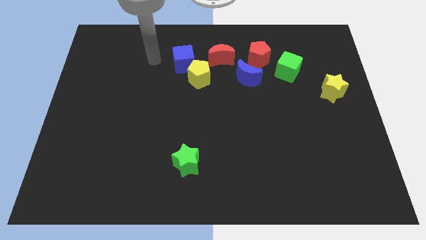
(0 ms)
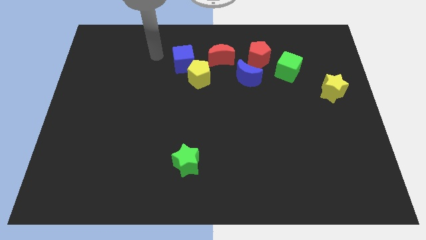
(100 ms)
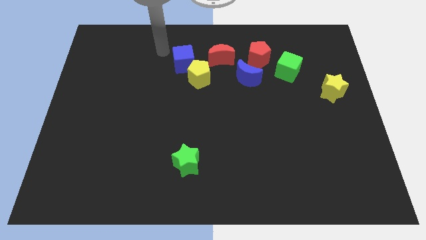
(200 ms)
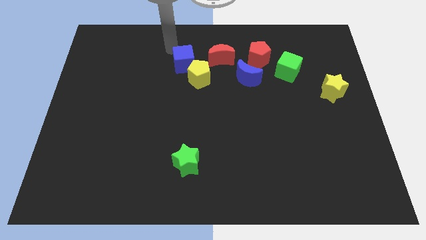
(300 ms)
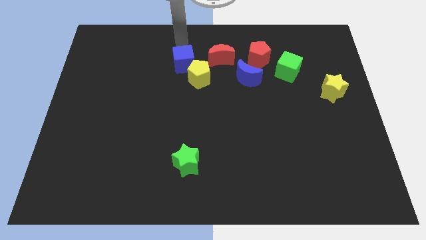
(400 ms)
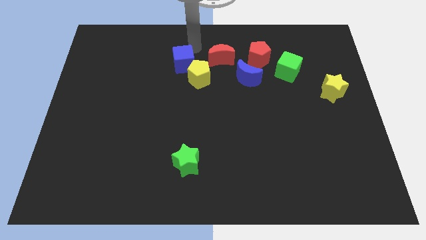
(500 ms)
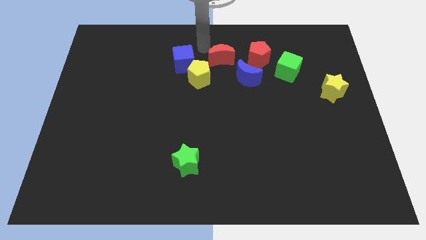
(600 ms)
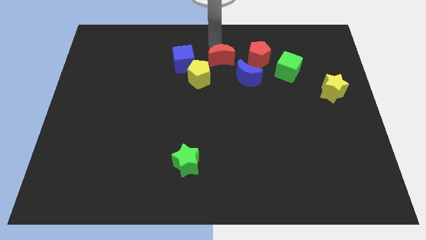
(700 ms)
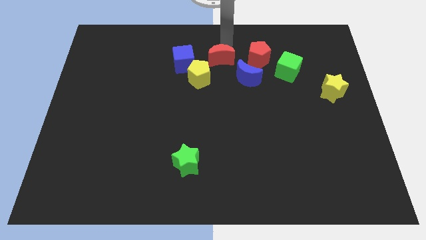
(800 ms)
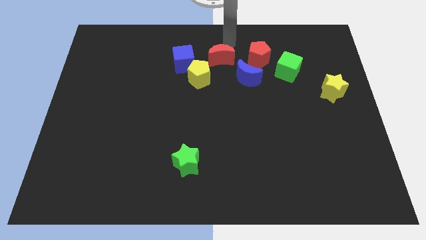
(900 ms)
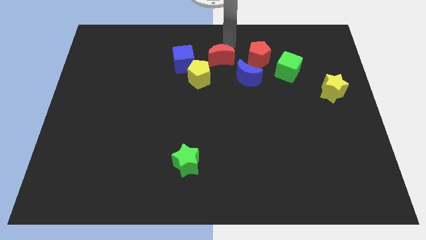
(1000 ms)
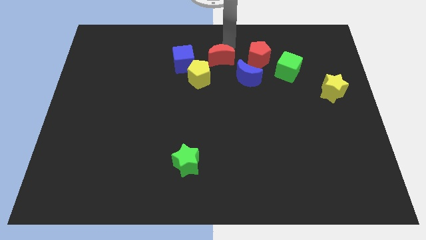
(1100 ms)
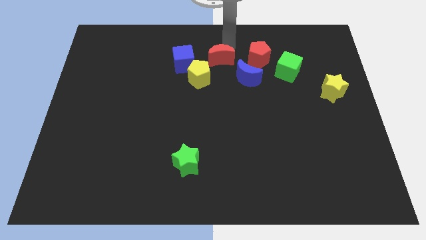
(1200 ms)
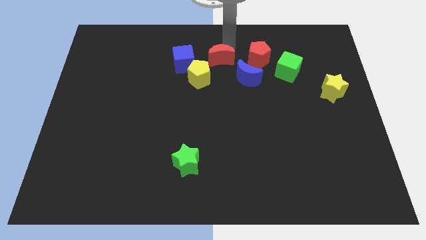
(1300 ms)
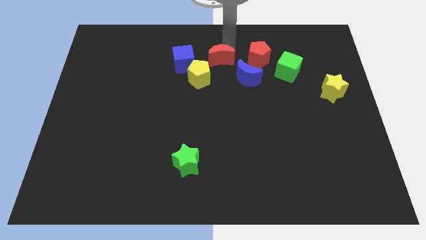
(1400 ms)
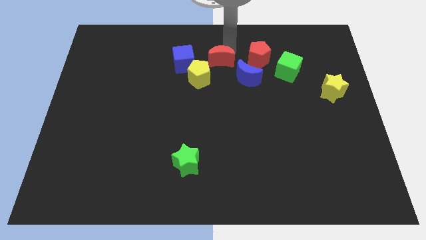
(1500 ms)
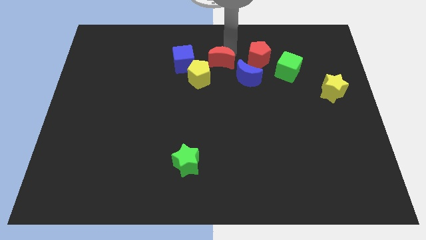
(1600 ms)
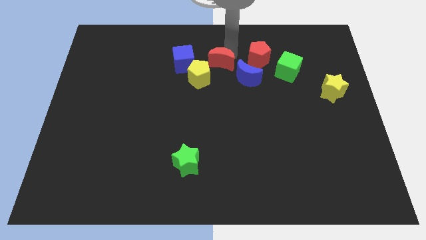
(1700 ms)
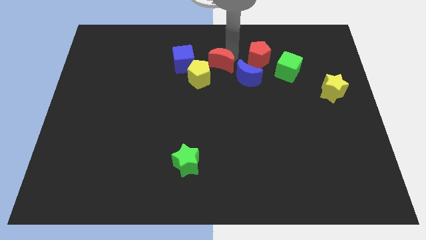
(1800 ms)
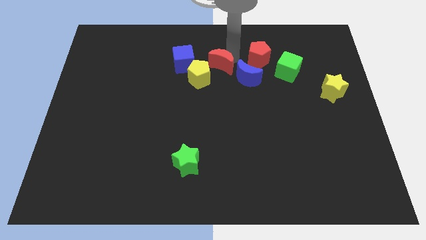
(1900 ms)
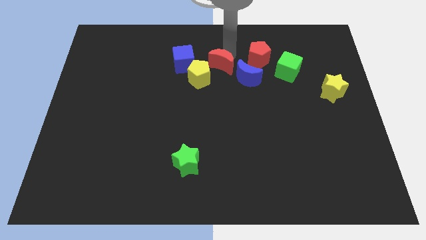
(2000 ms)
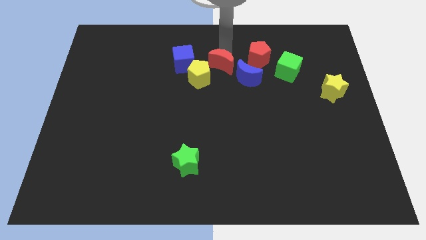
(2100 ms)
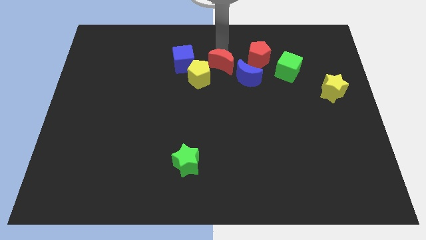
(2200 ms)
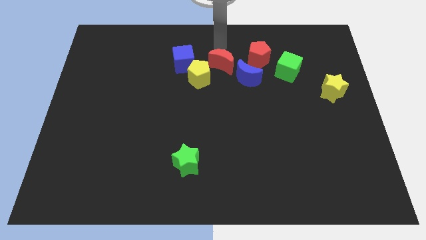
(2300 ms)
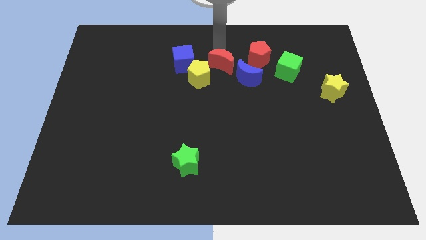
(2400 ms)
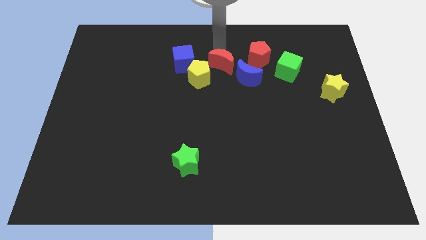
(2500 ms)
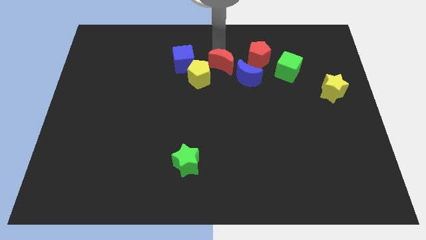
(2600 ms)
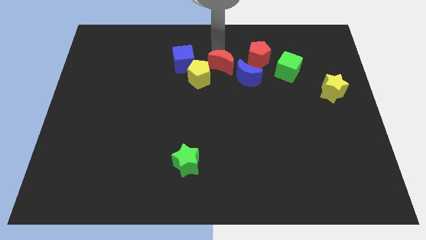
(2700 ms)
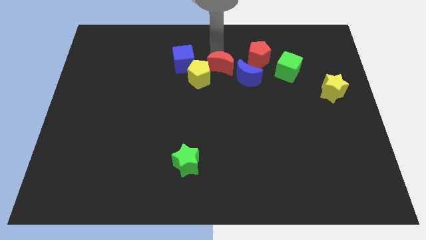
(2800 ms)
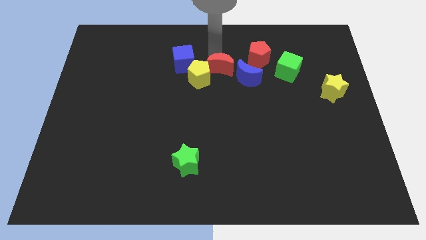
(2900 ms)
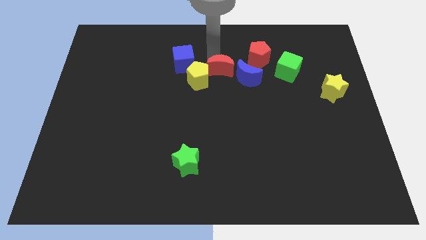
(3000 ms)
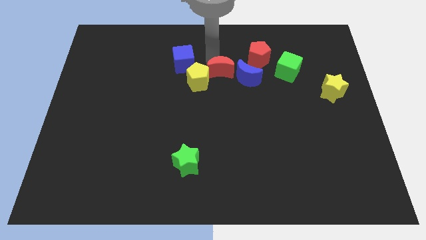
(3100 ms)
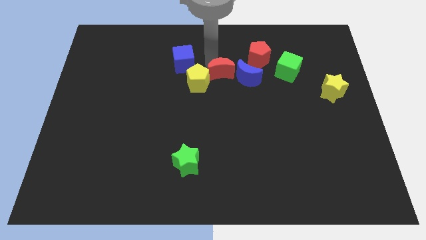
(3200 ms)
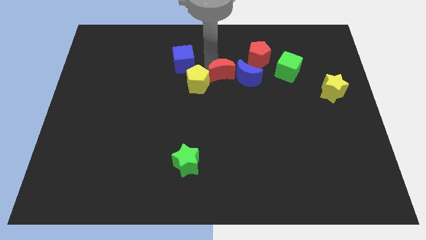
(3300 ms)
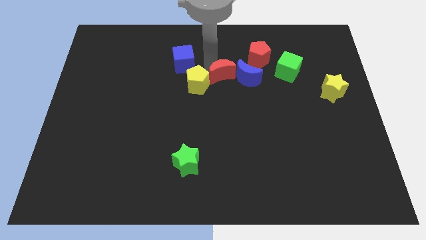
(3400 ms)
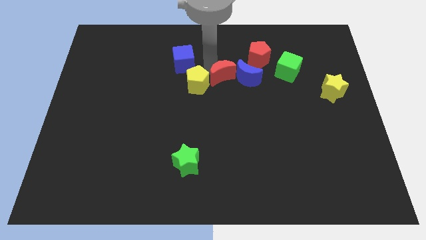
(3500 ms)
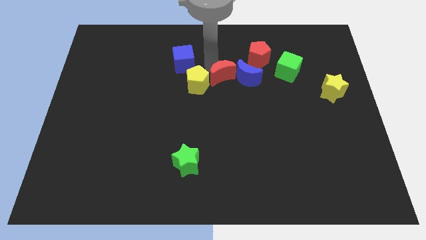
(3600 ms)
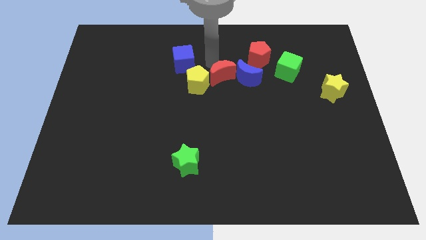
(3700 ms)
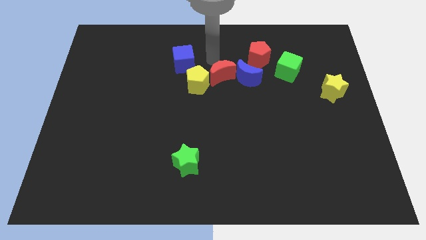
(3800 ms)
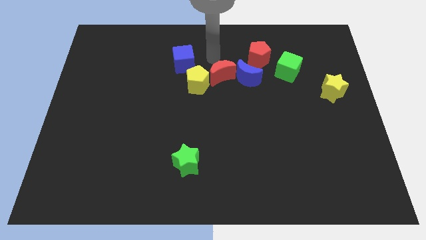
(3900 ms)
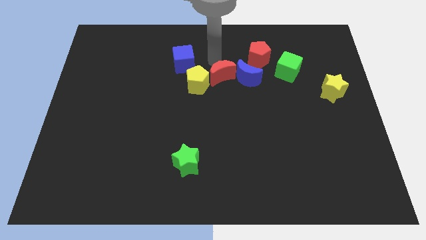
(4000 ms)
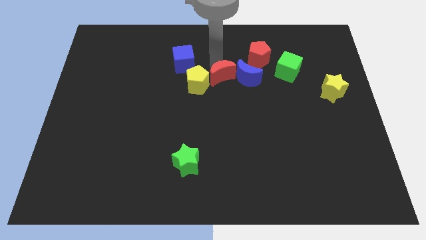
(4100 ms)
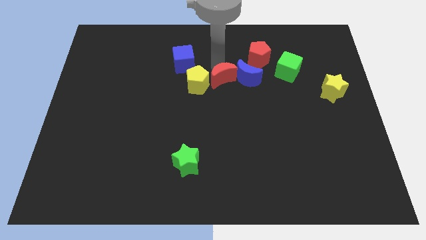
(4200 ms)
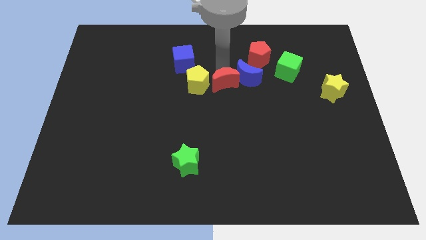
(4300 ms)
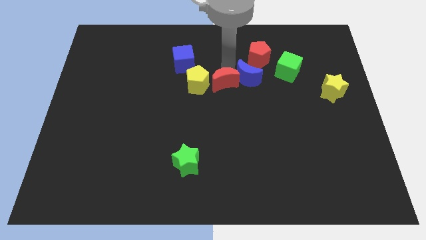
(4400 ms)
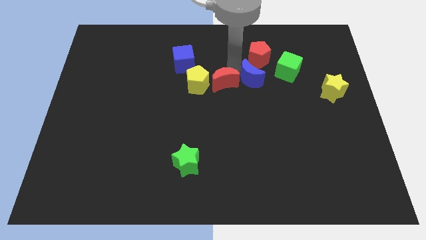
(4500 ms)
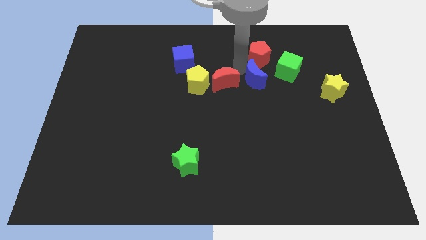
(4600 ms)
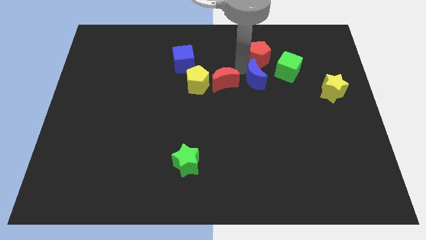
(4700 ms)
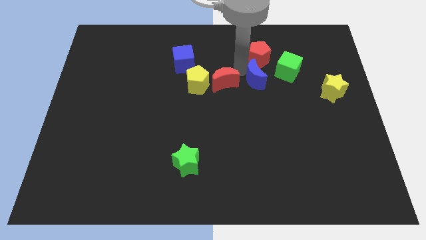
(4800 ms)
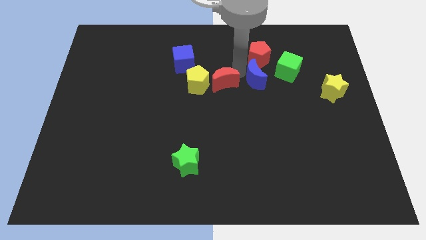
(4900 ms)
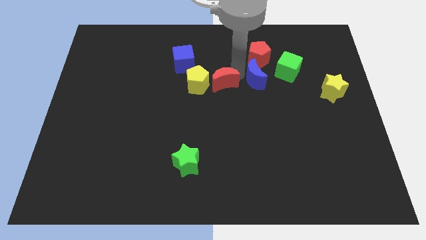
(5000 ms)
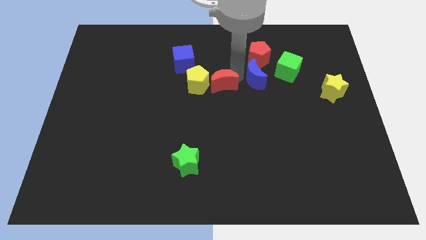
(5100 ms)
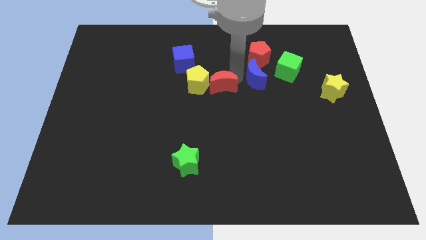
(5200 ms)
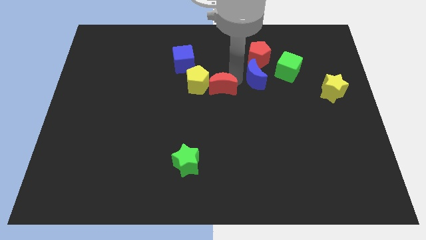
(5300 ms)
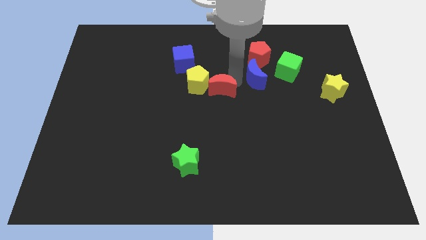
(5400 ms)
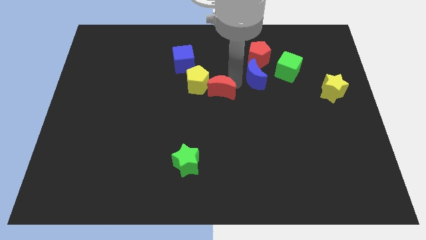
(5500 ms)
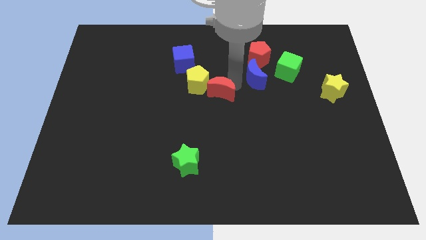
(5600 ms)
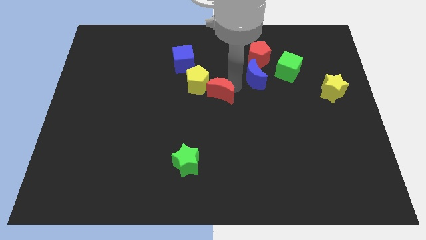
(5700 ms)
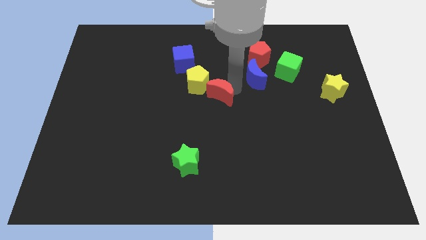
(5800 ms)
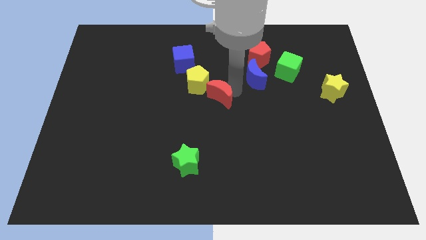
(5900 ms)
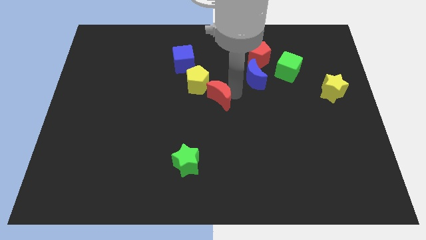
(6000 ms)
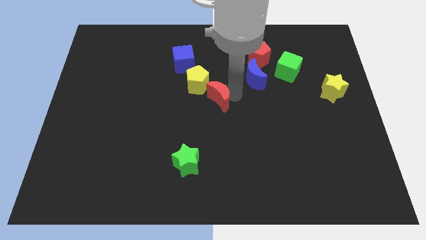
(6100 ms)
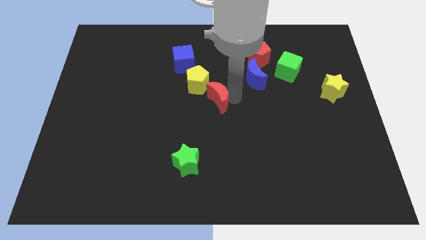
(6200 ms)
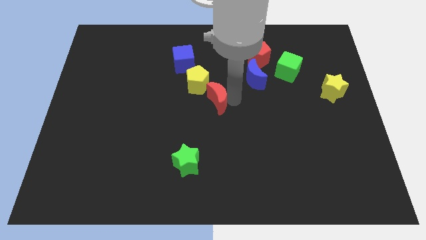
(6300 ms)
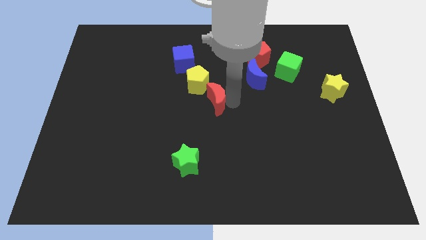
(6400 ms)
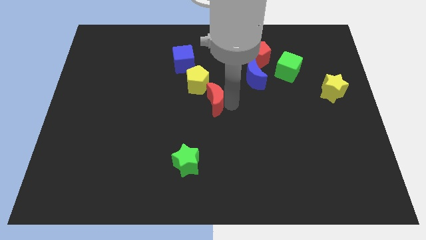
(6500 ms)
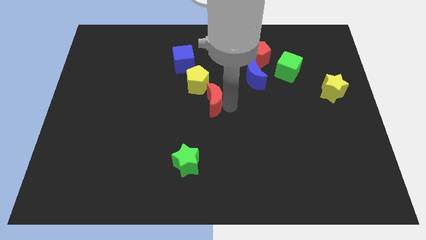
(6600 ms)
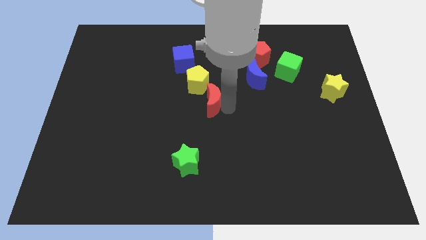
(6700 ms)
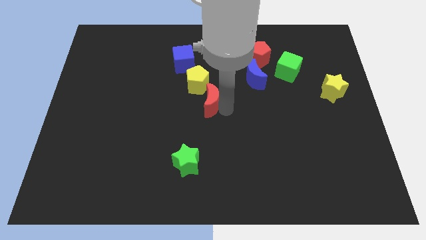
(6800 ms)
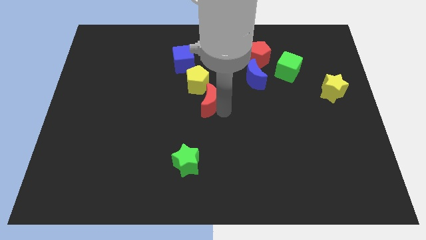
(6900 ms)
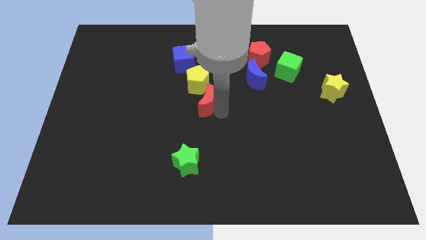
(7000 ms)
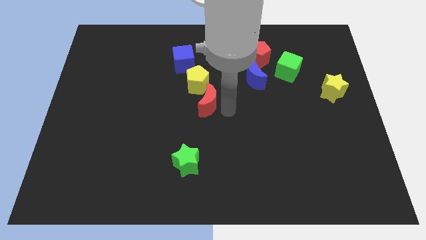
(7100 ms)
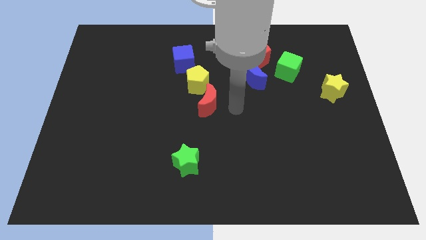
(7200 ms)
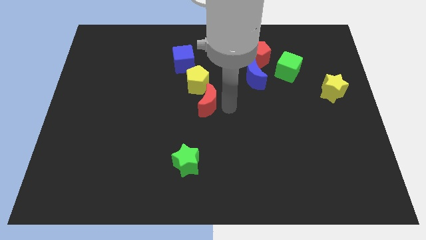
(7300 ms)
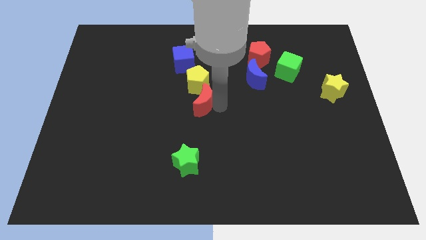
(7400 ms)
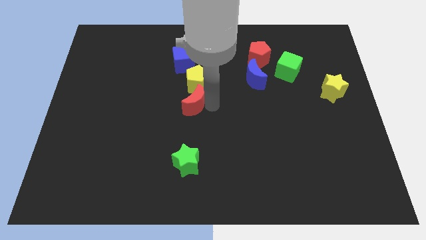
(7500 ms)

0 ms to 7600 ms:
move the red moon diagonally down and to the left of the yellow pentagon

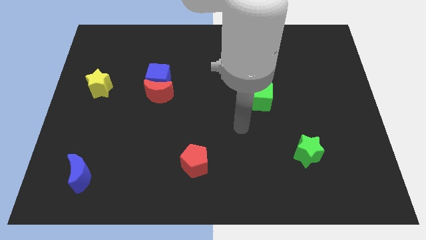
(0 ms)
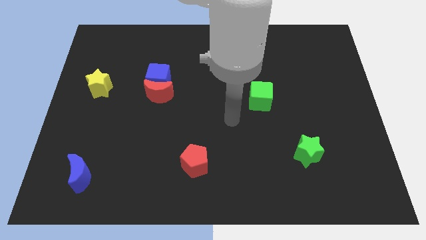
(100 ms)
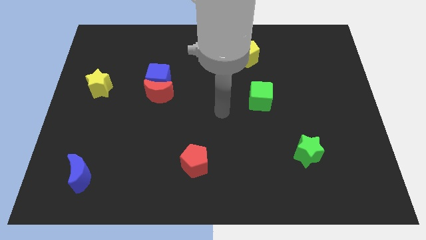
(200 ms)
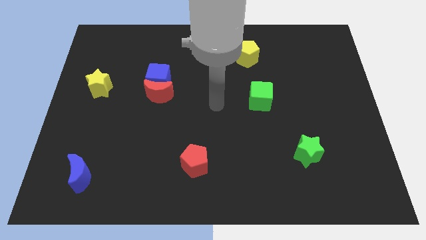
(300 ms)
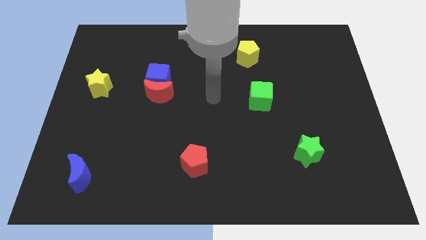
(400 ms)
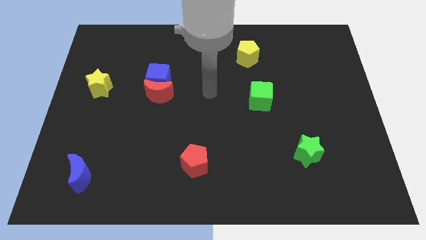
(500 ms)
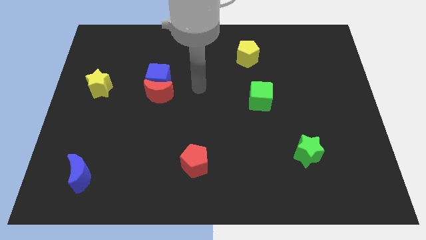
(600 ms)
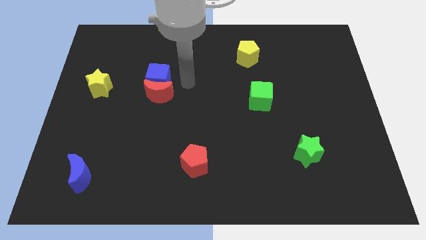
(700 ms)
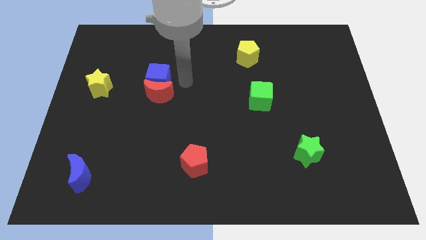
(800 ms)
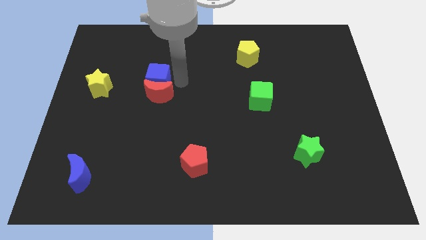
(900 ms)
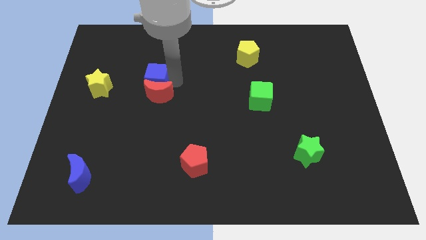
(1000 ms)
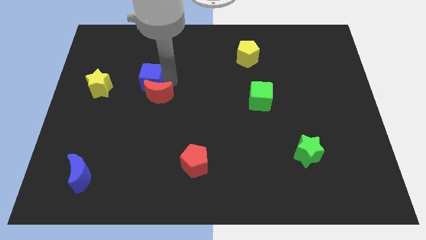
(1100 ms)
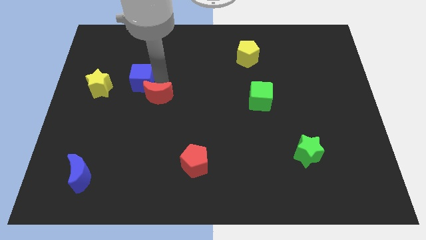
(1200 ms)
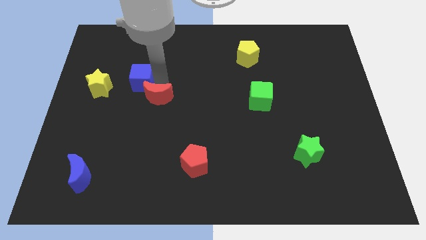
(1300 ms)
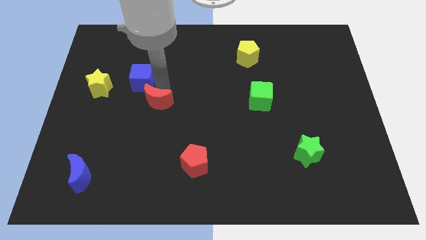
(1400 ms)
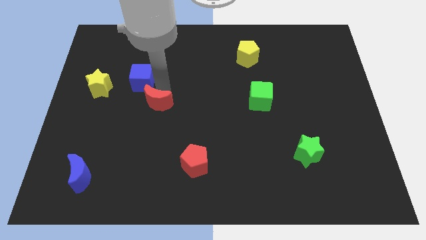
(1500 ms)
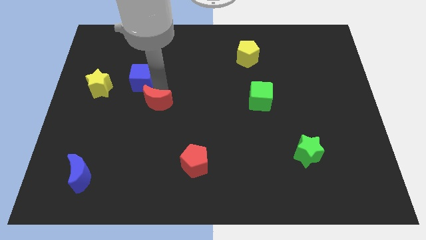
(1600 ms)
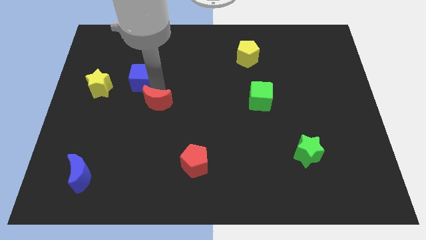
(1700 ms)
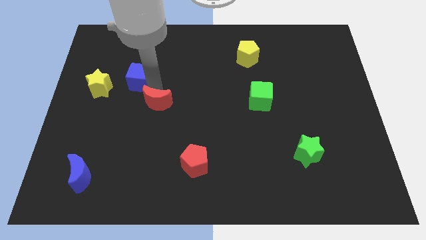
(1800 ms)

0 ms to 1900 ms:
move the blue cube to the top right of the yellow star
